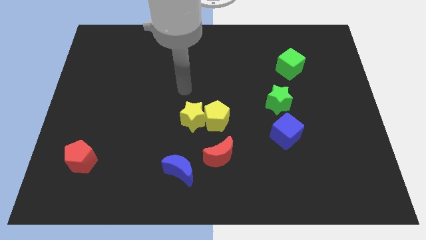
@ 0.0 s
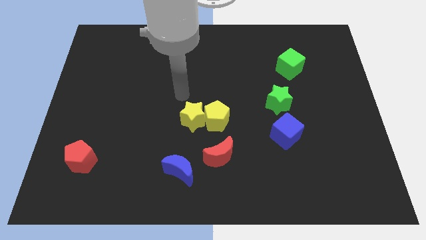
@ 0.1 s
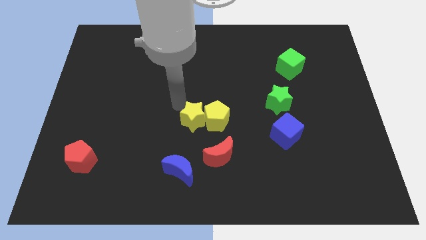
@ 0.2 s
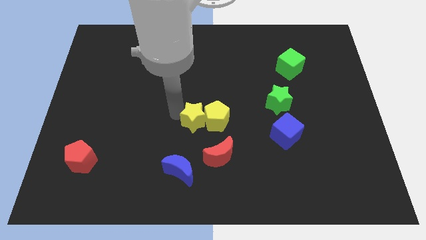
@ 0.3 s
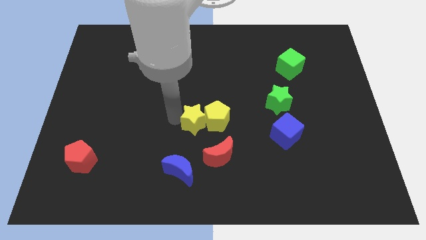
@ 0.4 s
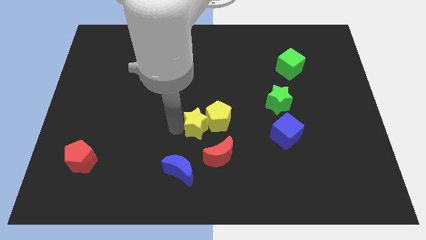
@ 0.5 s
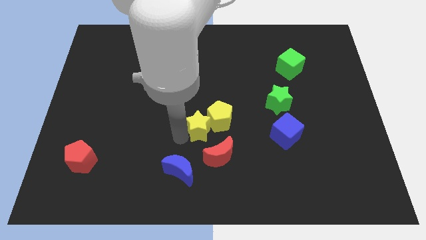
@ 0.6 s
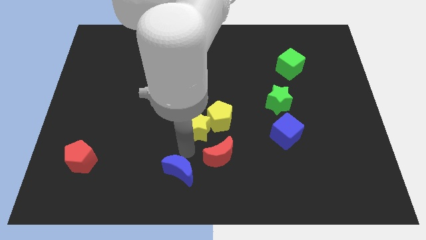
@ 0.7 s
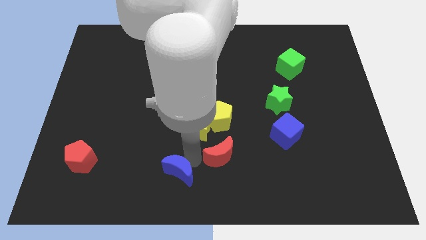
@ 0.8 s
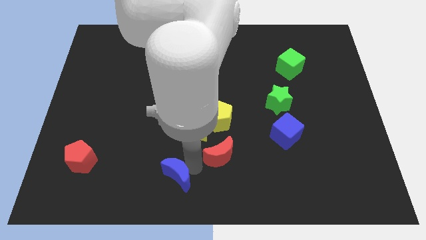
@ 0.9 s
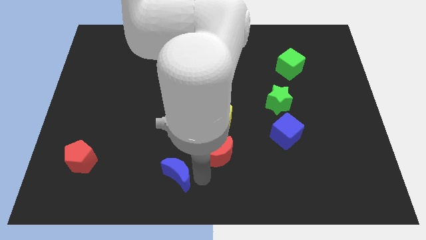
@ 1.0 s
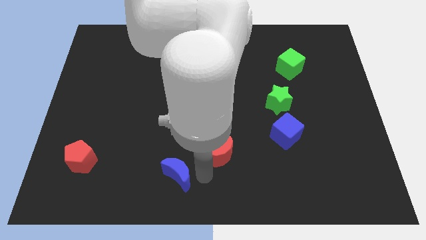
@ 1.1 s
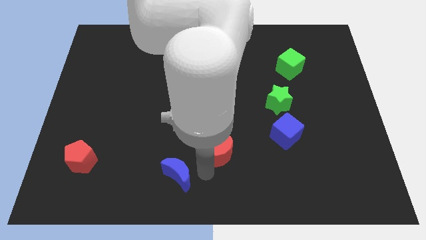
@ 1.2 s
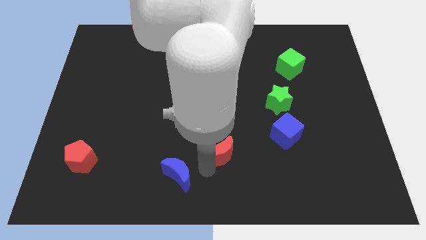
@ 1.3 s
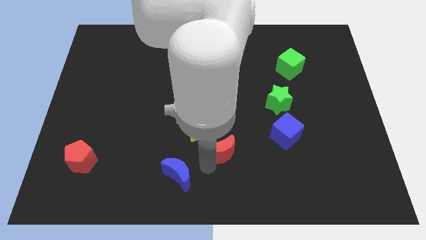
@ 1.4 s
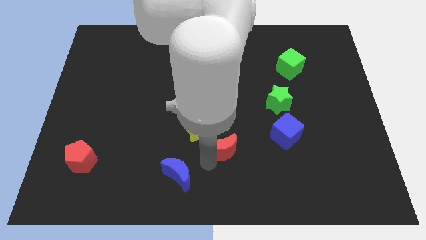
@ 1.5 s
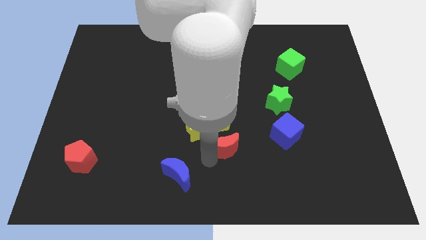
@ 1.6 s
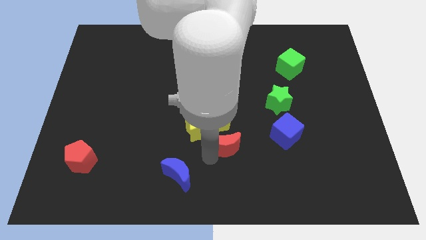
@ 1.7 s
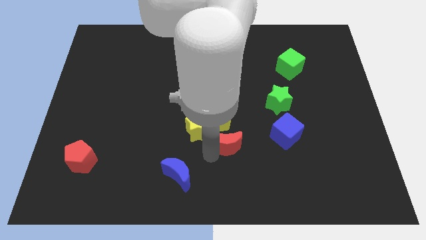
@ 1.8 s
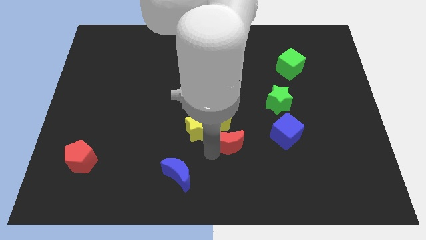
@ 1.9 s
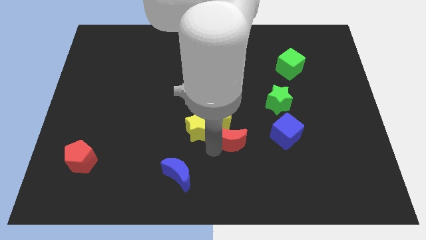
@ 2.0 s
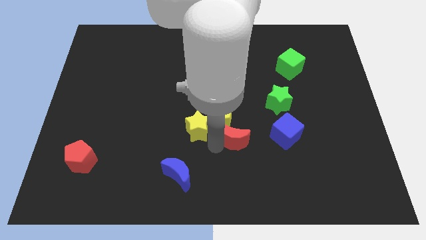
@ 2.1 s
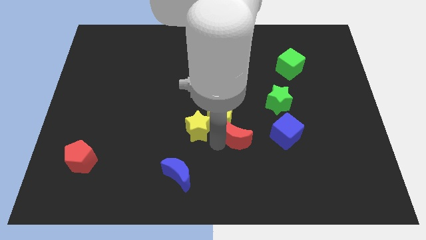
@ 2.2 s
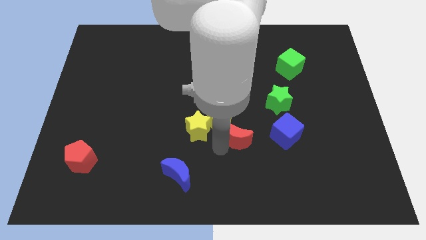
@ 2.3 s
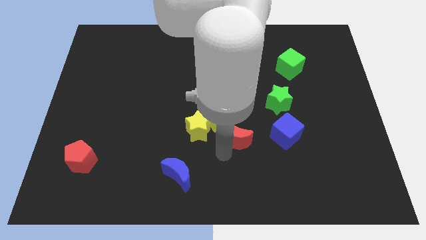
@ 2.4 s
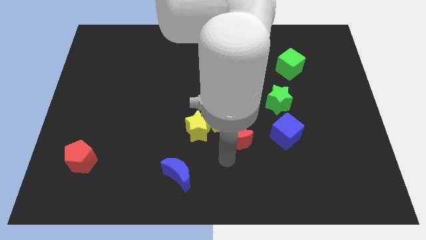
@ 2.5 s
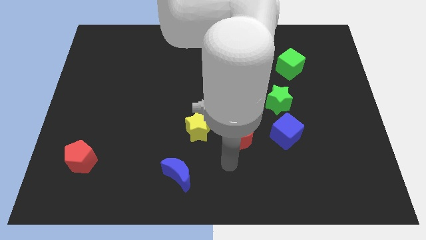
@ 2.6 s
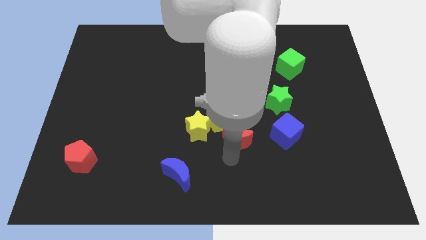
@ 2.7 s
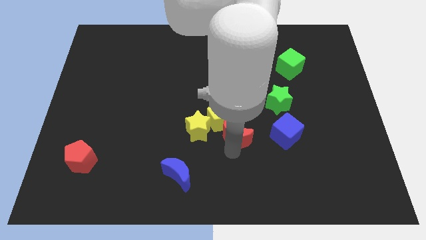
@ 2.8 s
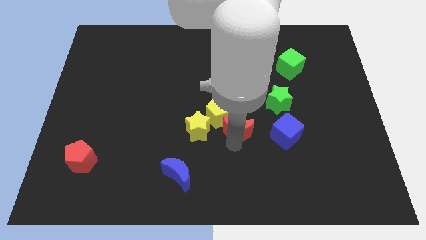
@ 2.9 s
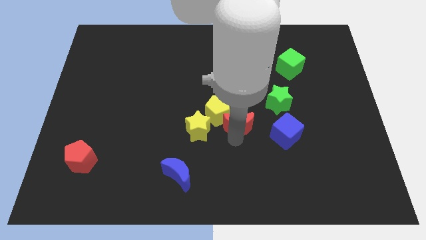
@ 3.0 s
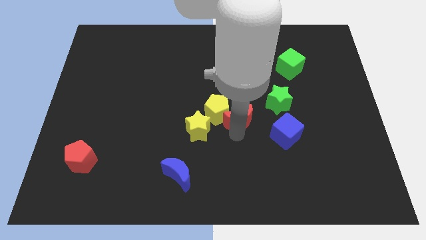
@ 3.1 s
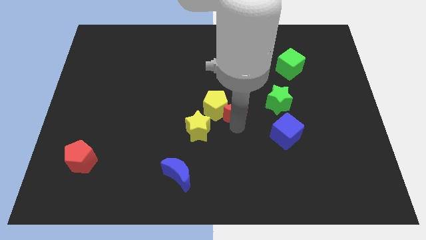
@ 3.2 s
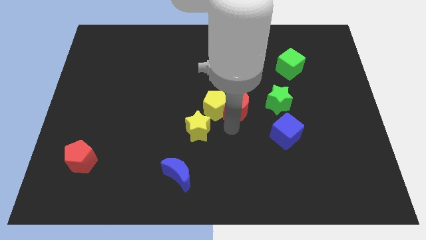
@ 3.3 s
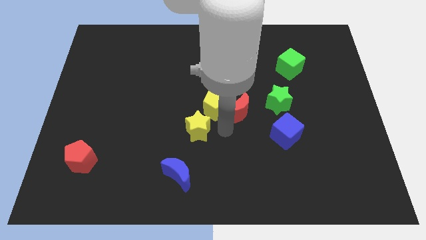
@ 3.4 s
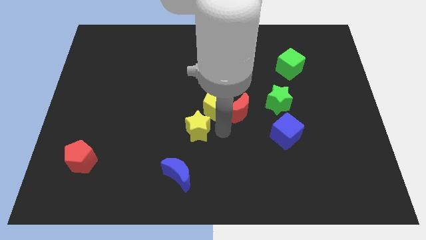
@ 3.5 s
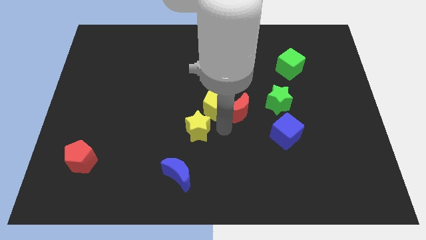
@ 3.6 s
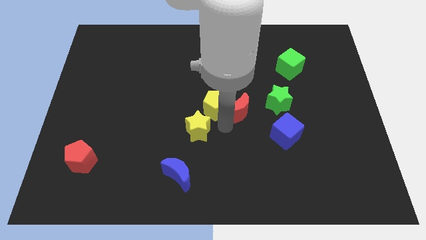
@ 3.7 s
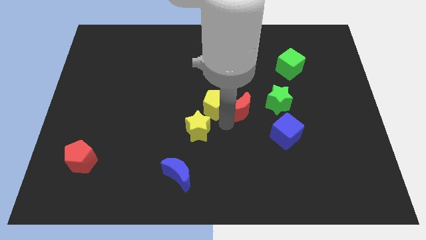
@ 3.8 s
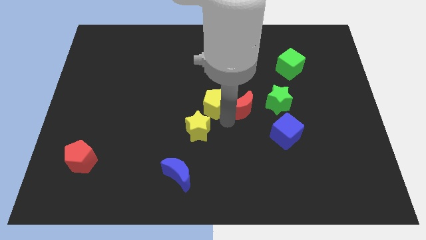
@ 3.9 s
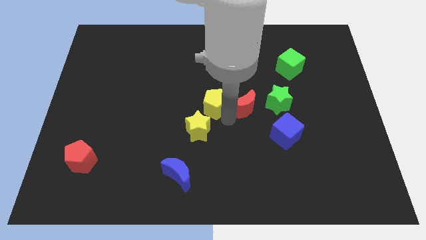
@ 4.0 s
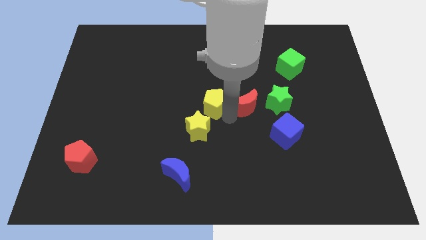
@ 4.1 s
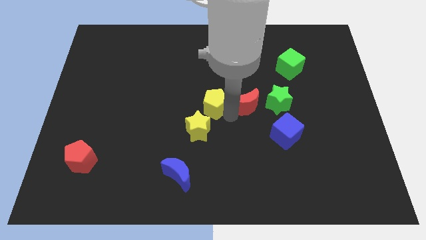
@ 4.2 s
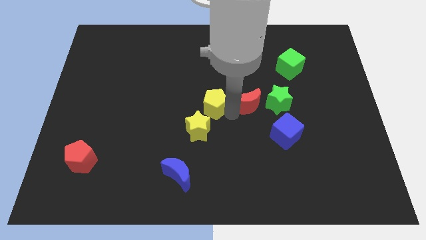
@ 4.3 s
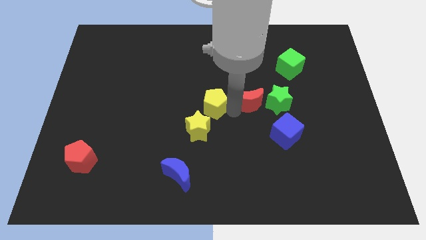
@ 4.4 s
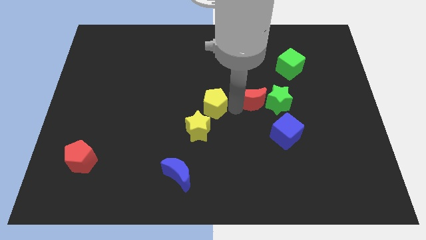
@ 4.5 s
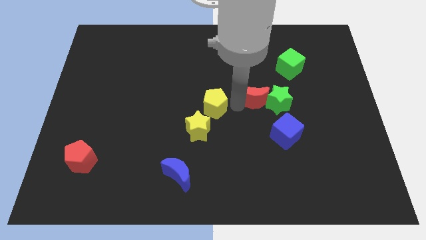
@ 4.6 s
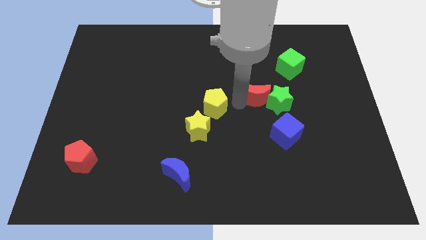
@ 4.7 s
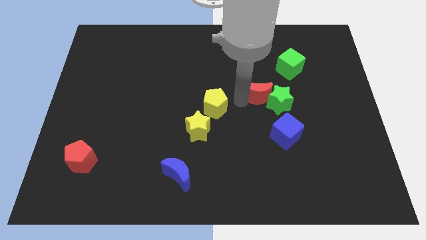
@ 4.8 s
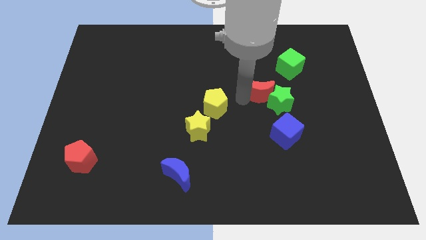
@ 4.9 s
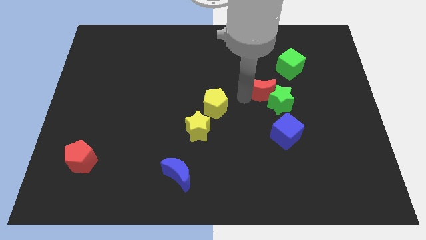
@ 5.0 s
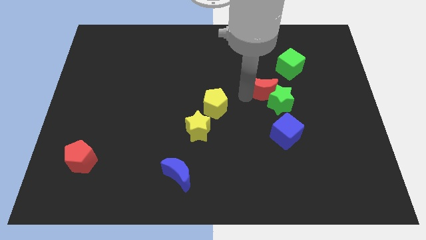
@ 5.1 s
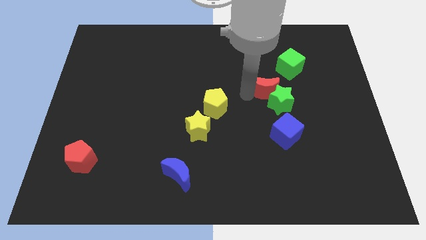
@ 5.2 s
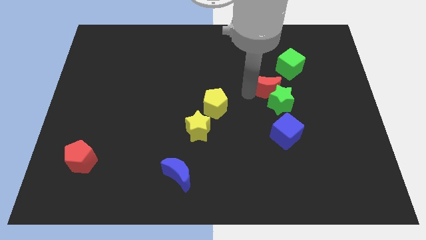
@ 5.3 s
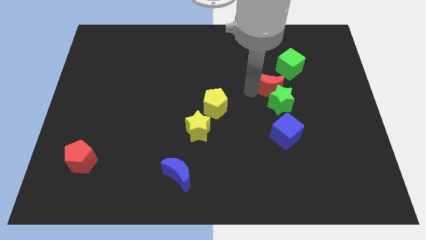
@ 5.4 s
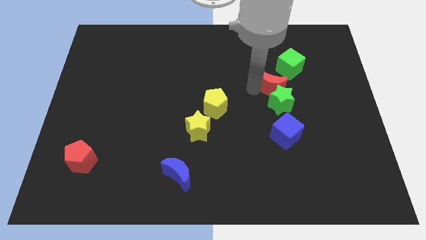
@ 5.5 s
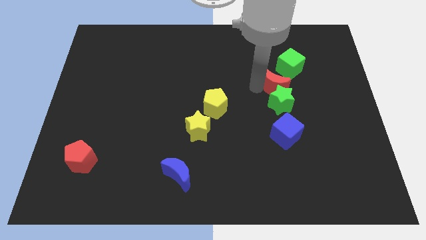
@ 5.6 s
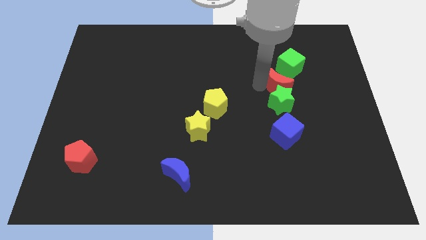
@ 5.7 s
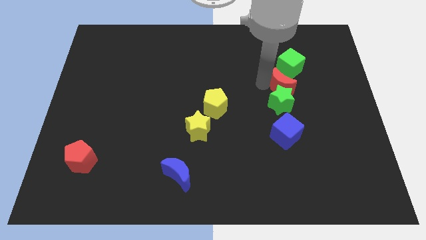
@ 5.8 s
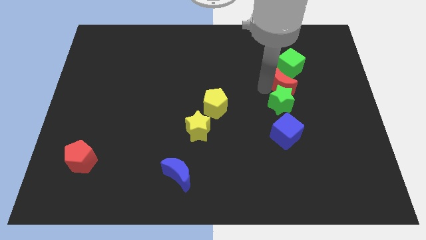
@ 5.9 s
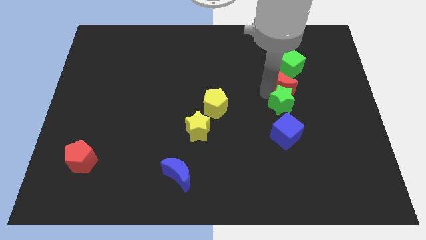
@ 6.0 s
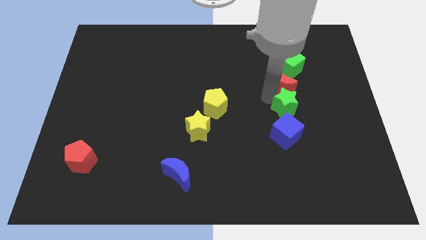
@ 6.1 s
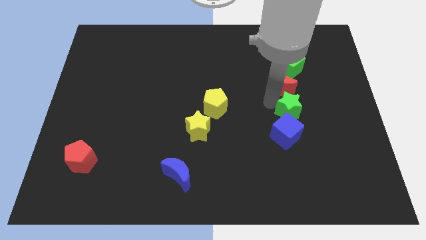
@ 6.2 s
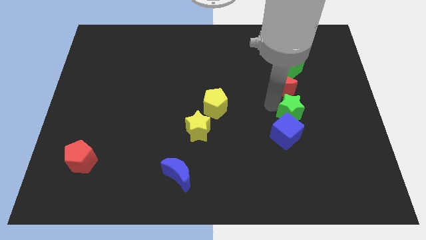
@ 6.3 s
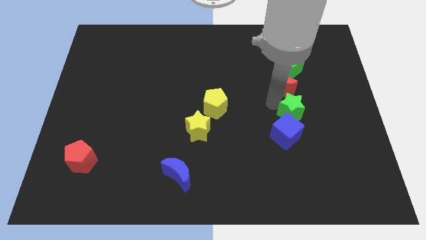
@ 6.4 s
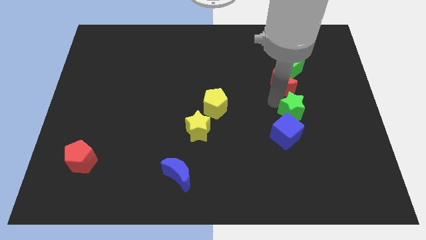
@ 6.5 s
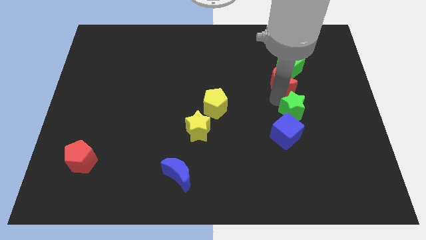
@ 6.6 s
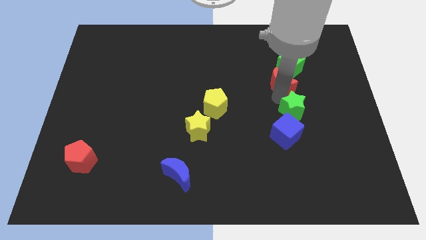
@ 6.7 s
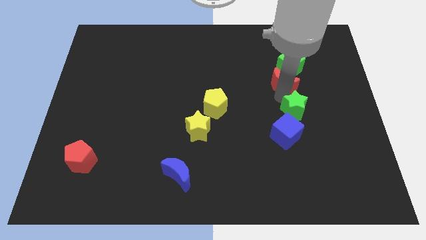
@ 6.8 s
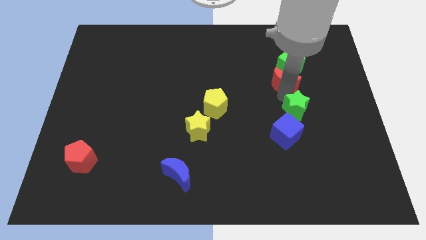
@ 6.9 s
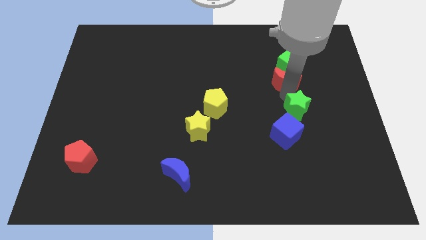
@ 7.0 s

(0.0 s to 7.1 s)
put the red moon next to the green cube

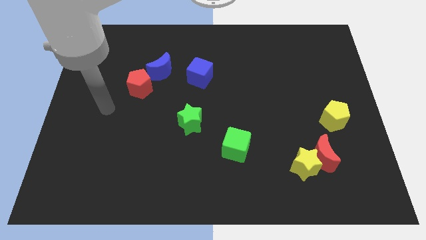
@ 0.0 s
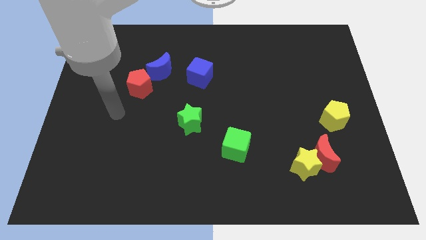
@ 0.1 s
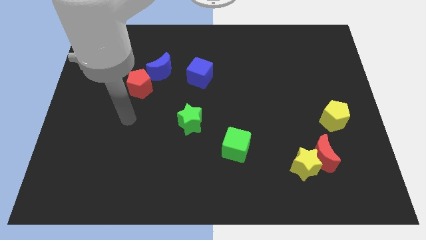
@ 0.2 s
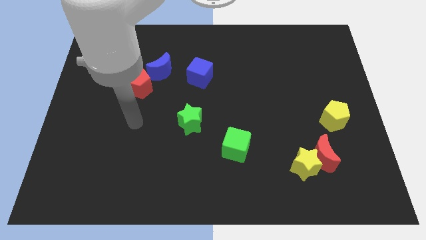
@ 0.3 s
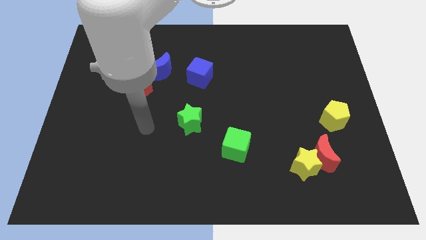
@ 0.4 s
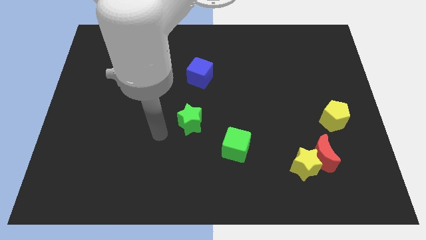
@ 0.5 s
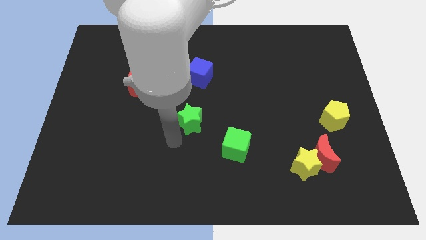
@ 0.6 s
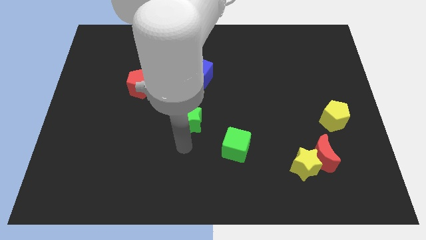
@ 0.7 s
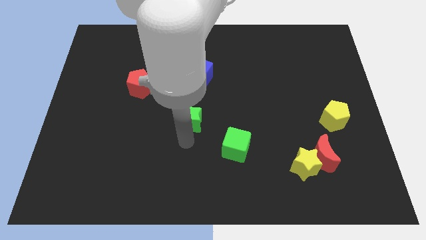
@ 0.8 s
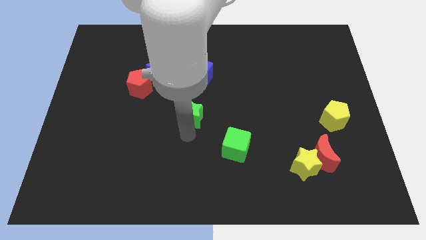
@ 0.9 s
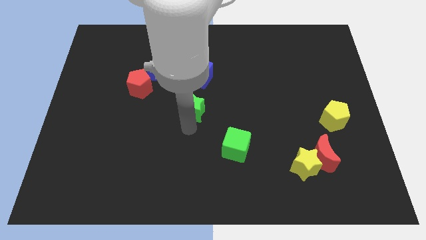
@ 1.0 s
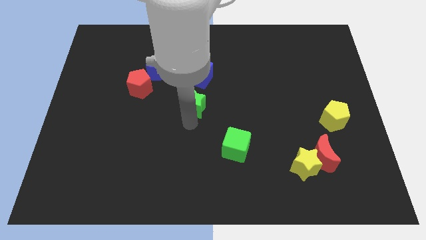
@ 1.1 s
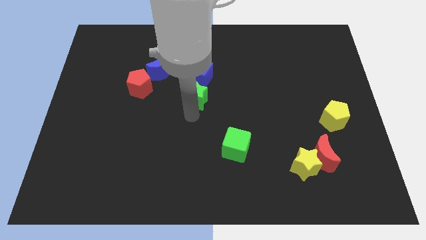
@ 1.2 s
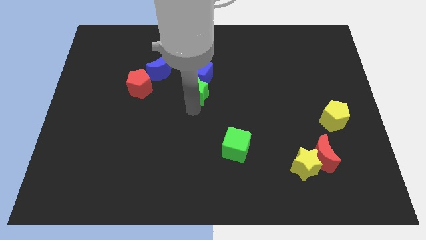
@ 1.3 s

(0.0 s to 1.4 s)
move the green star next to the blue cube
